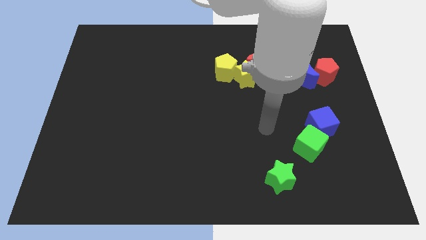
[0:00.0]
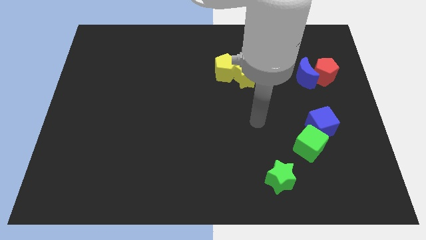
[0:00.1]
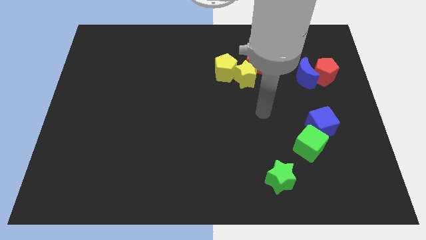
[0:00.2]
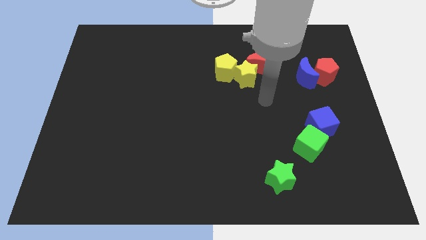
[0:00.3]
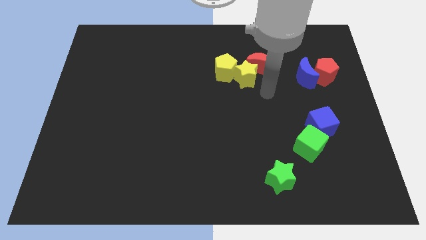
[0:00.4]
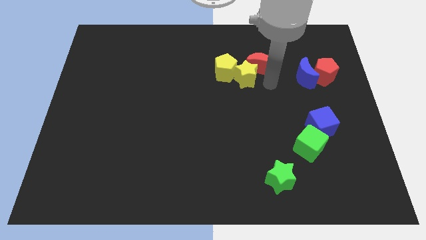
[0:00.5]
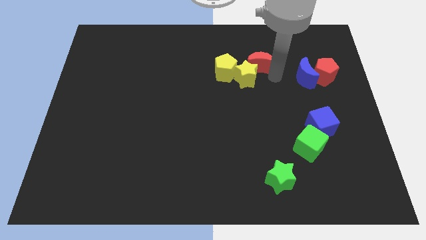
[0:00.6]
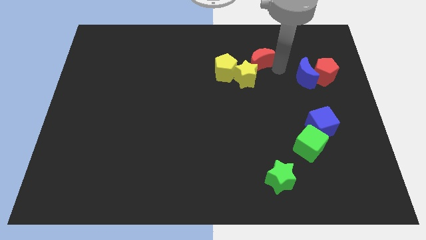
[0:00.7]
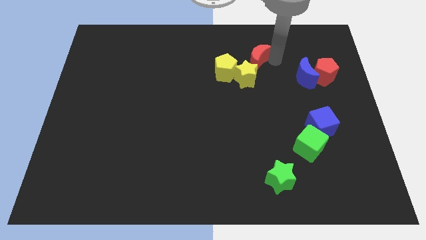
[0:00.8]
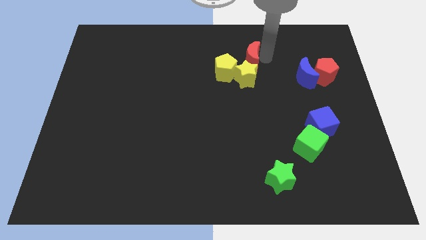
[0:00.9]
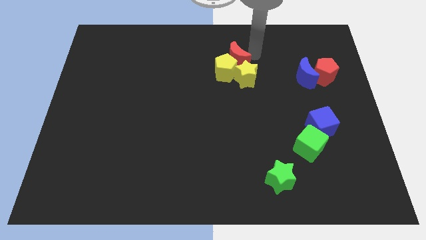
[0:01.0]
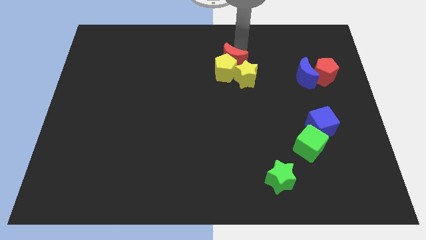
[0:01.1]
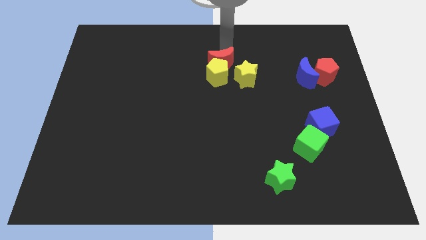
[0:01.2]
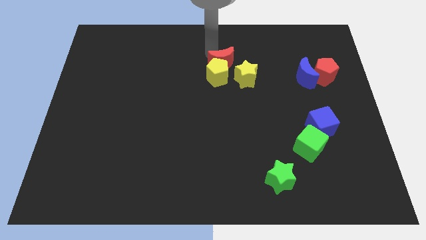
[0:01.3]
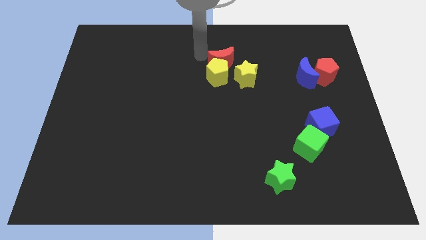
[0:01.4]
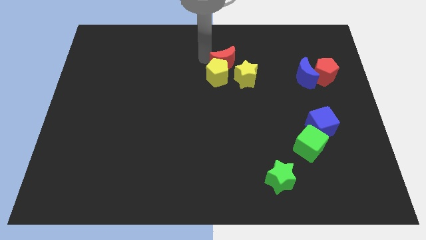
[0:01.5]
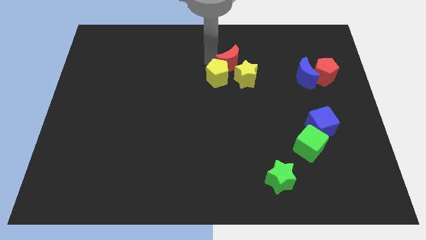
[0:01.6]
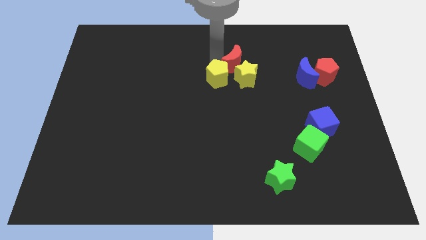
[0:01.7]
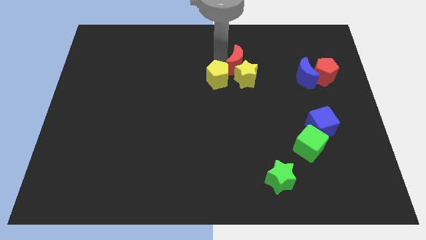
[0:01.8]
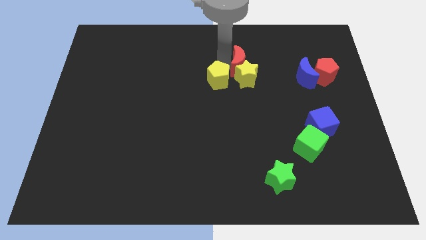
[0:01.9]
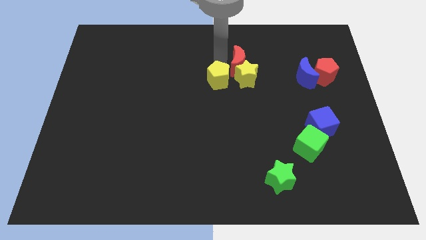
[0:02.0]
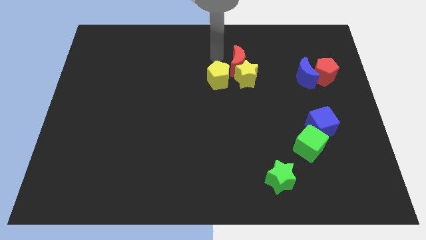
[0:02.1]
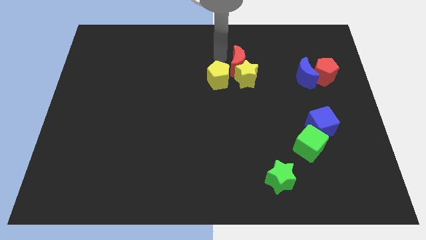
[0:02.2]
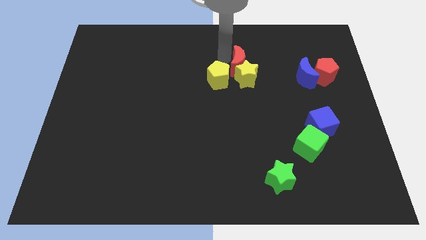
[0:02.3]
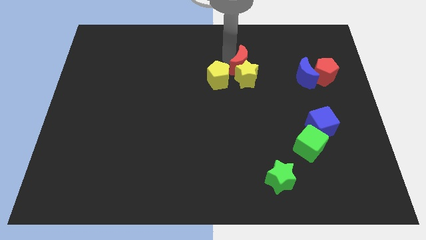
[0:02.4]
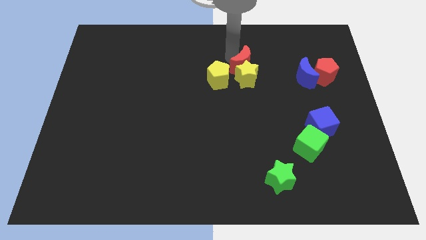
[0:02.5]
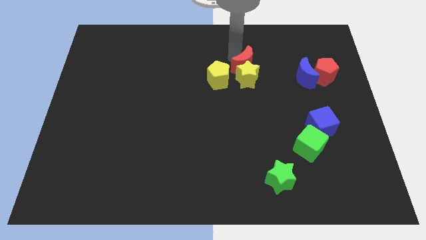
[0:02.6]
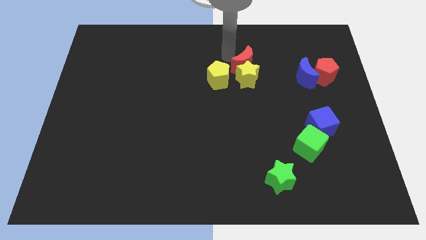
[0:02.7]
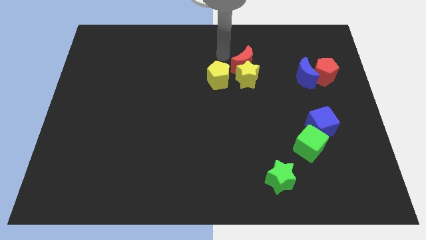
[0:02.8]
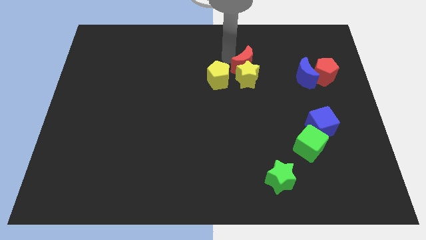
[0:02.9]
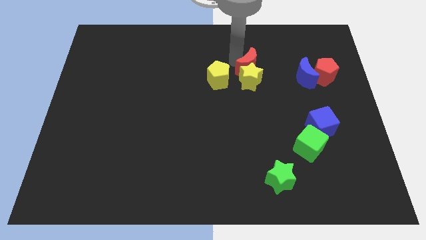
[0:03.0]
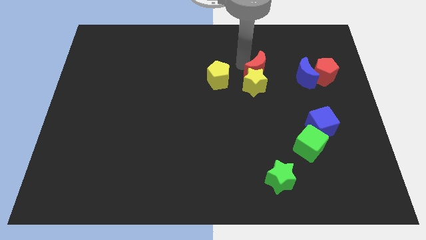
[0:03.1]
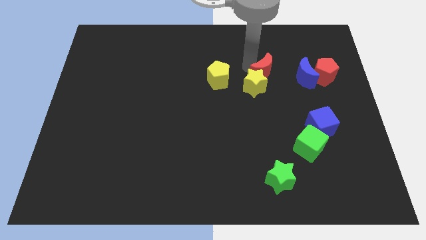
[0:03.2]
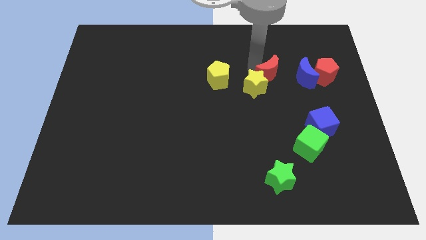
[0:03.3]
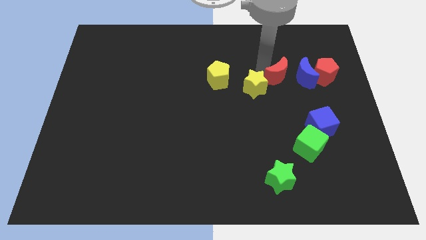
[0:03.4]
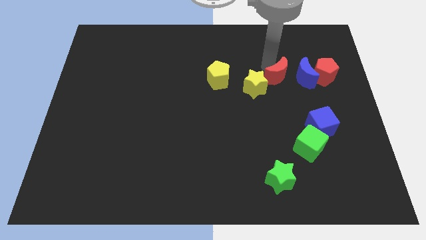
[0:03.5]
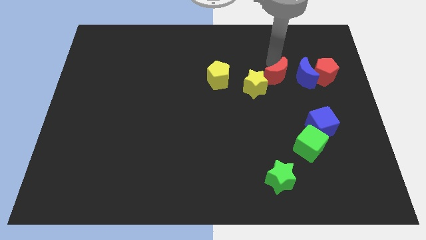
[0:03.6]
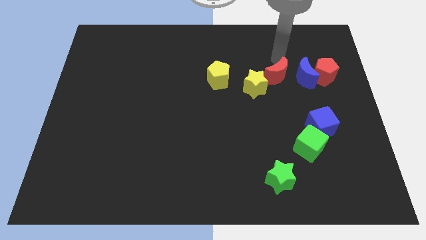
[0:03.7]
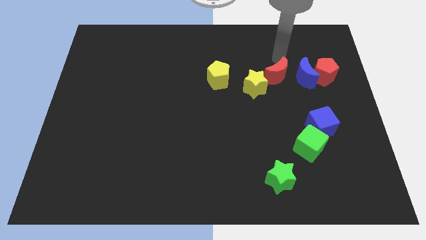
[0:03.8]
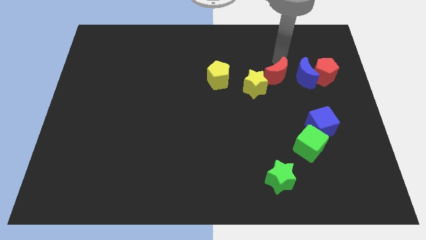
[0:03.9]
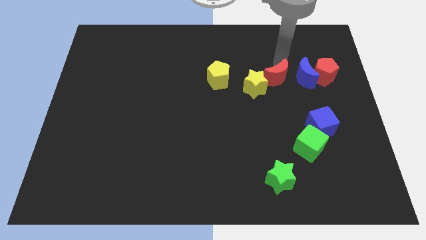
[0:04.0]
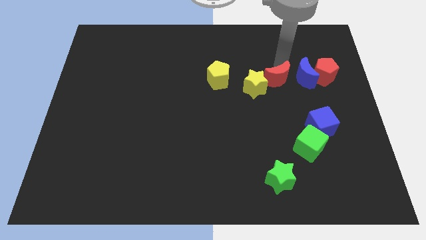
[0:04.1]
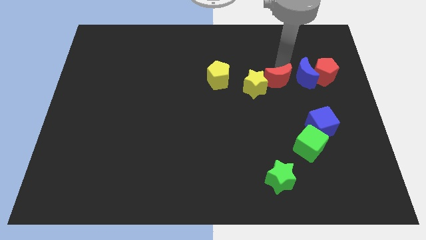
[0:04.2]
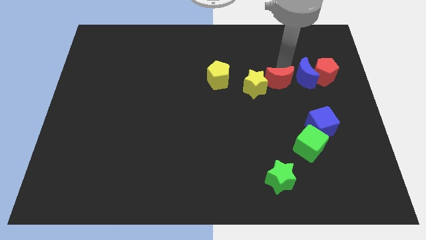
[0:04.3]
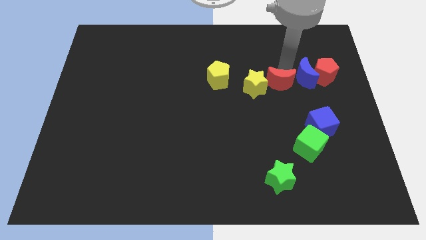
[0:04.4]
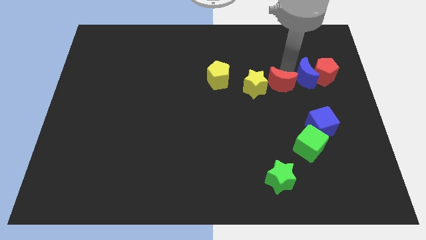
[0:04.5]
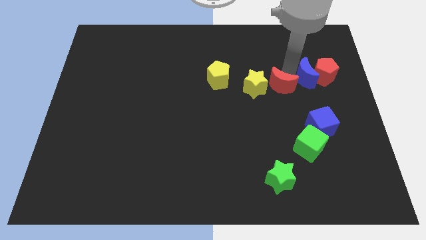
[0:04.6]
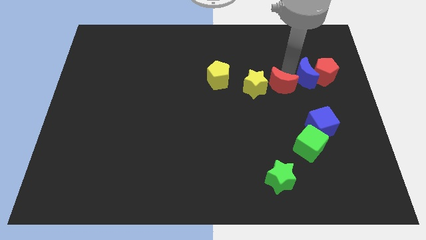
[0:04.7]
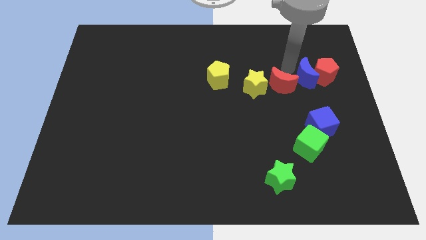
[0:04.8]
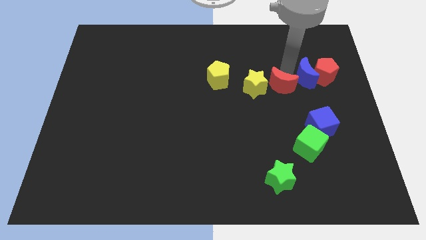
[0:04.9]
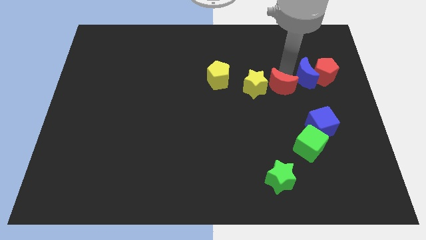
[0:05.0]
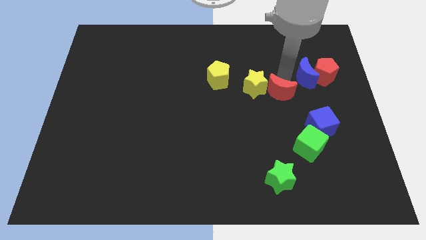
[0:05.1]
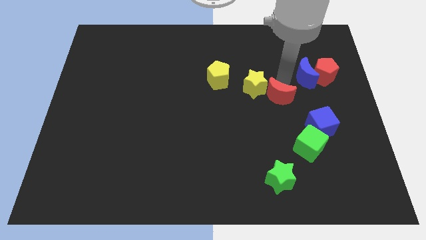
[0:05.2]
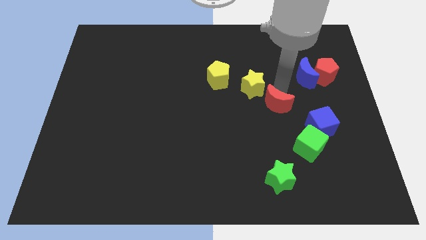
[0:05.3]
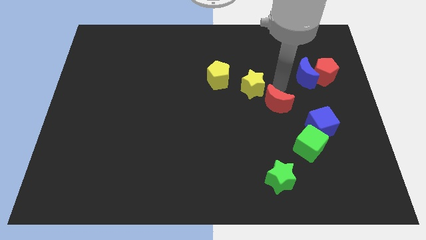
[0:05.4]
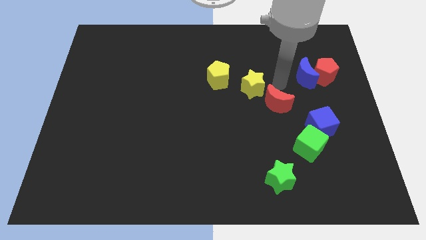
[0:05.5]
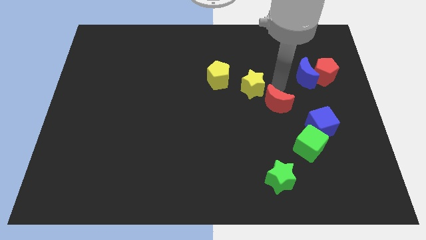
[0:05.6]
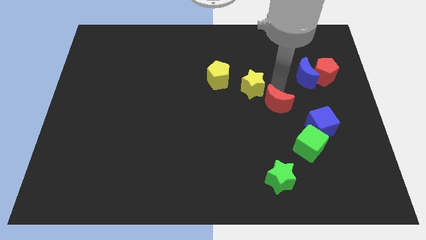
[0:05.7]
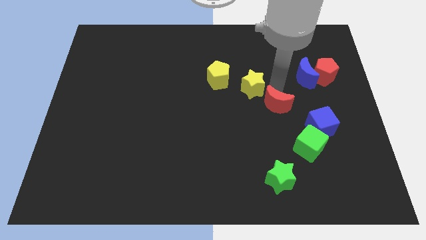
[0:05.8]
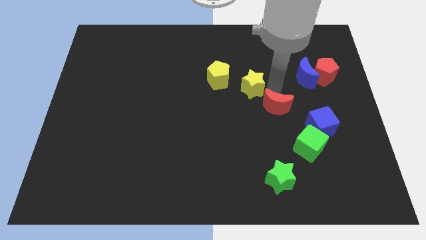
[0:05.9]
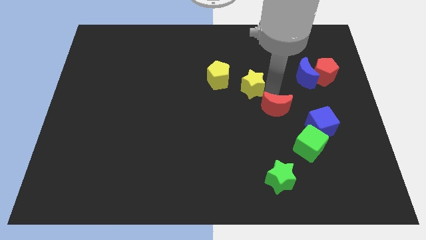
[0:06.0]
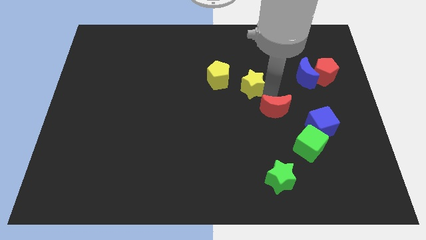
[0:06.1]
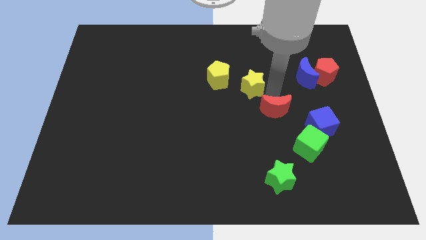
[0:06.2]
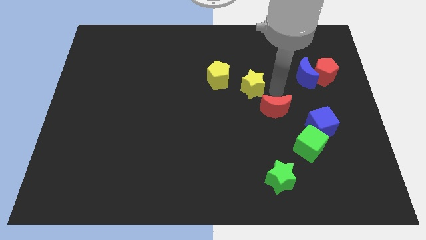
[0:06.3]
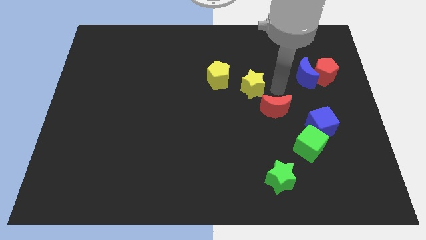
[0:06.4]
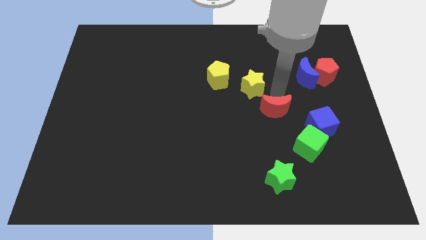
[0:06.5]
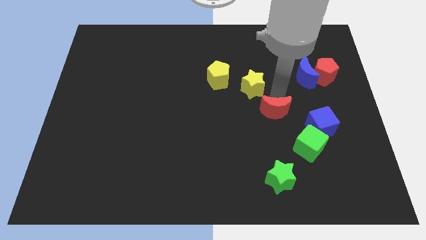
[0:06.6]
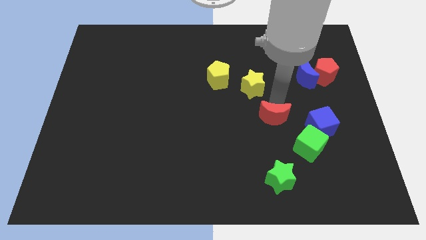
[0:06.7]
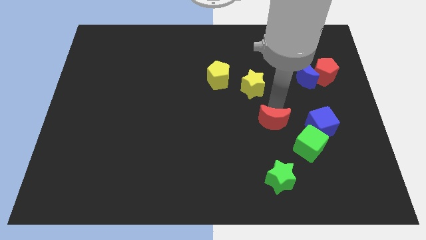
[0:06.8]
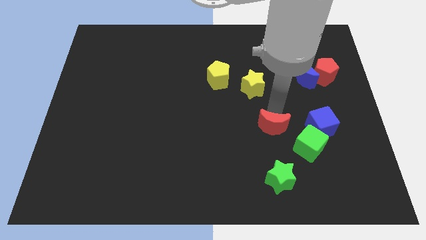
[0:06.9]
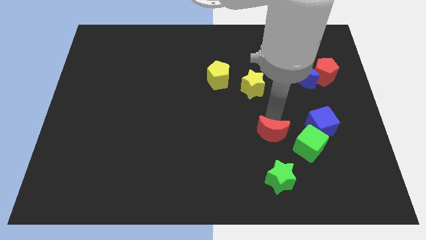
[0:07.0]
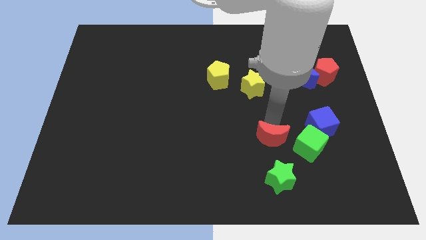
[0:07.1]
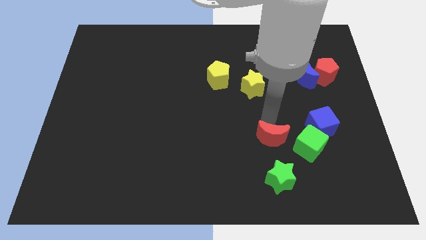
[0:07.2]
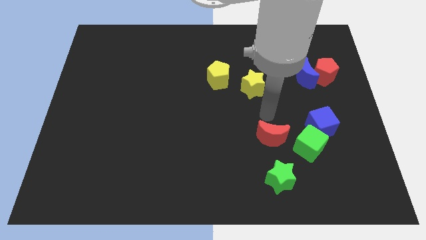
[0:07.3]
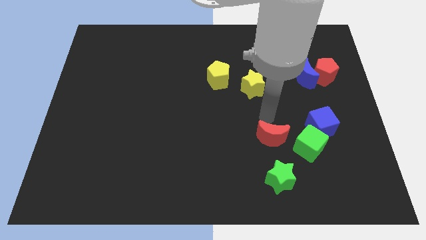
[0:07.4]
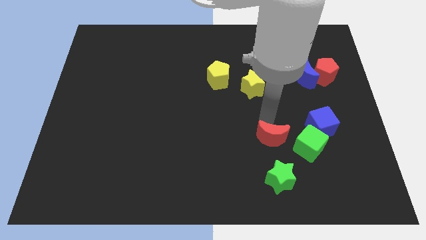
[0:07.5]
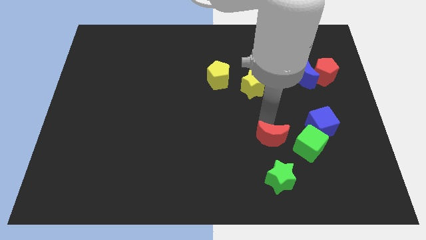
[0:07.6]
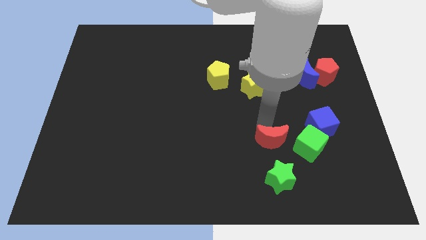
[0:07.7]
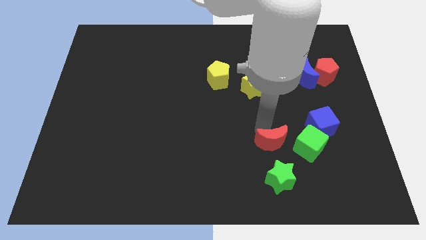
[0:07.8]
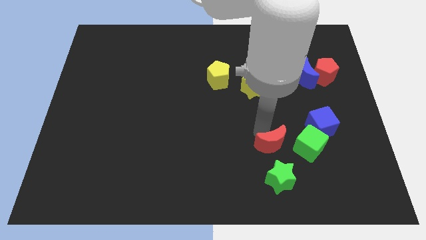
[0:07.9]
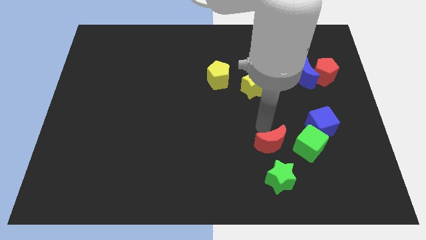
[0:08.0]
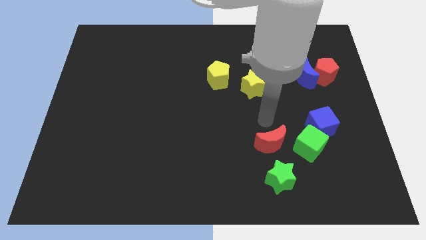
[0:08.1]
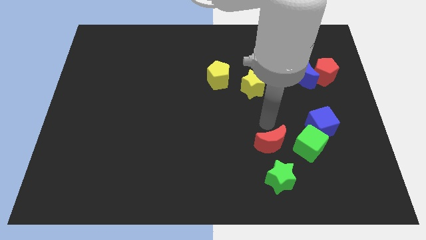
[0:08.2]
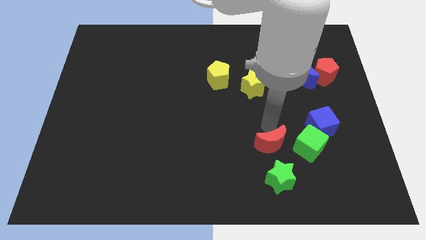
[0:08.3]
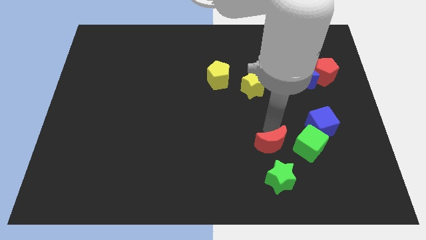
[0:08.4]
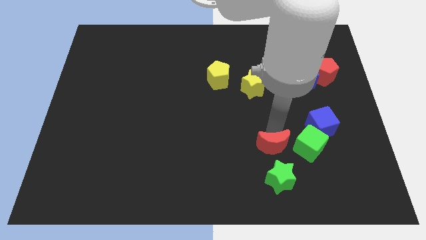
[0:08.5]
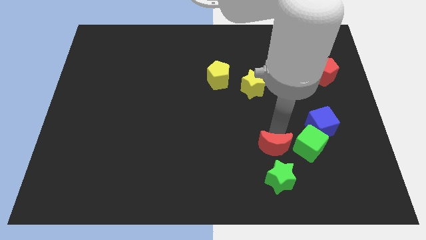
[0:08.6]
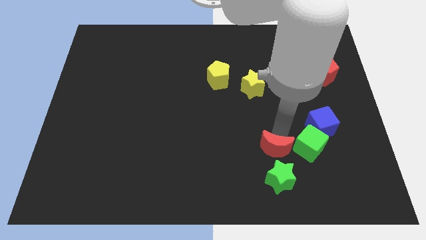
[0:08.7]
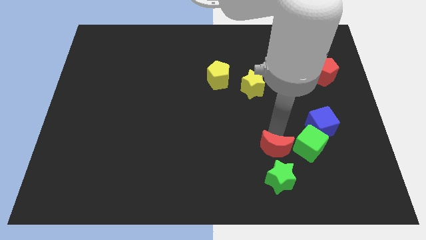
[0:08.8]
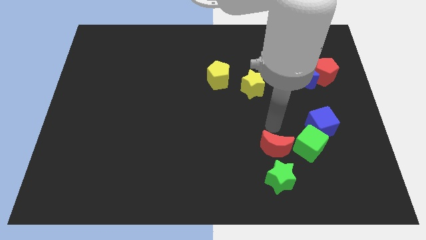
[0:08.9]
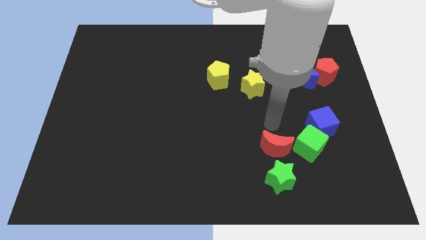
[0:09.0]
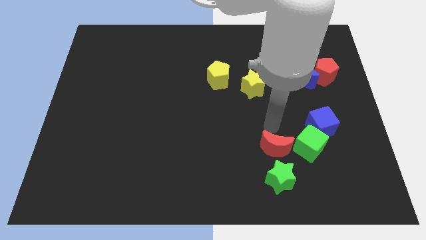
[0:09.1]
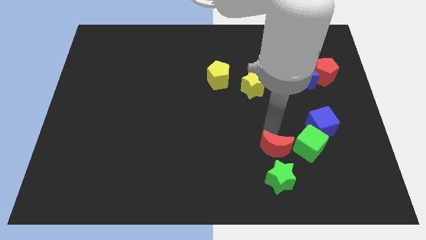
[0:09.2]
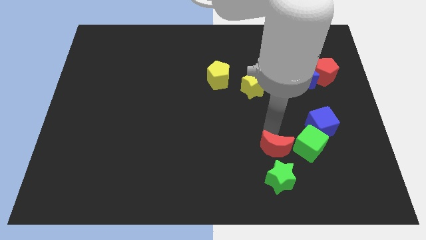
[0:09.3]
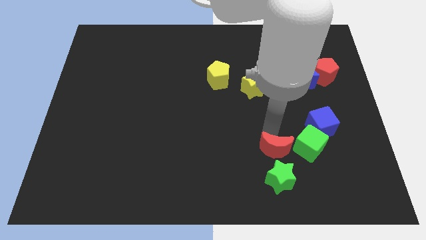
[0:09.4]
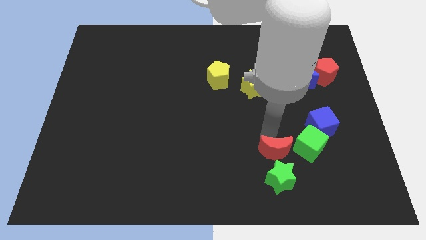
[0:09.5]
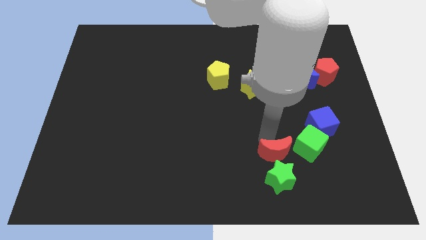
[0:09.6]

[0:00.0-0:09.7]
push the red moon close to the green star
